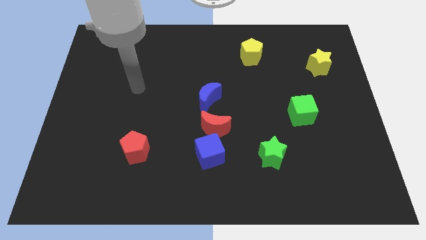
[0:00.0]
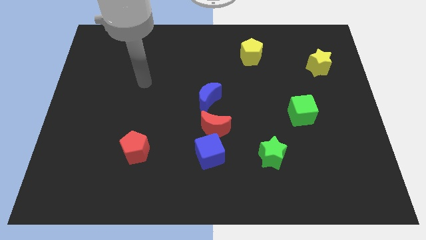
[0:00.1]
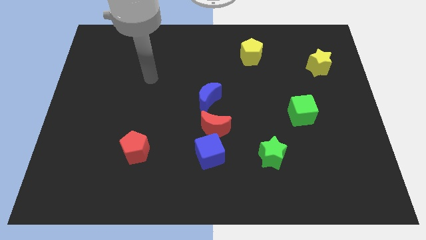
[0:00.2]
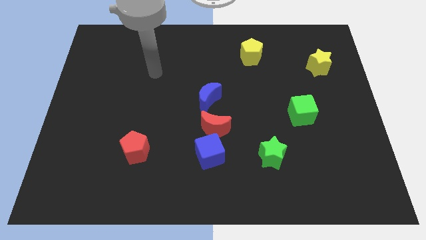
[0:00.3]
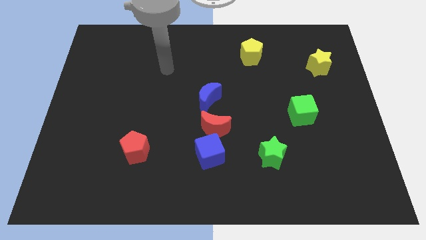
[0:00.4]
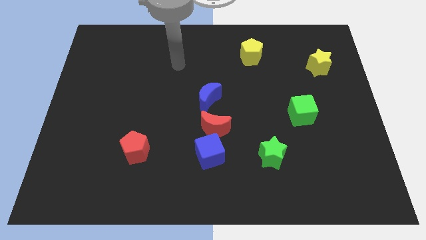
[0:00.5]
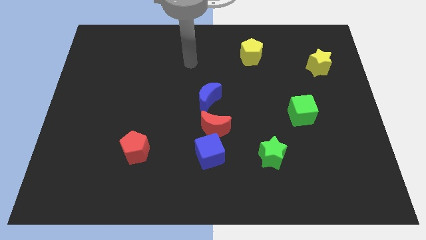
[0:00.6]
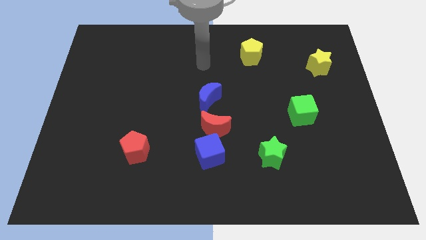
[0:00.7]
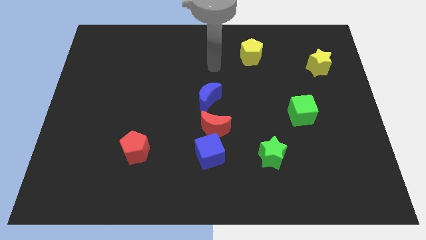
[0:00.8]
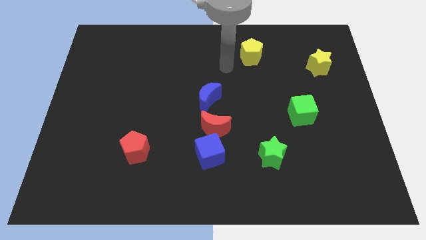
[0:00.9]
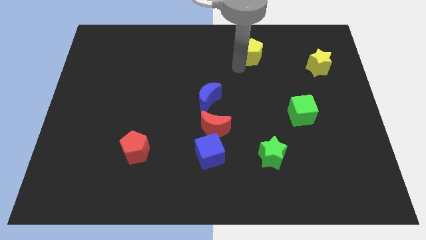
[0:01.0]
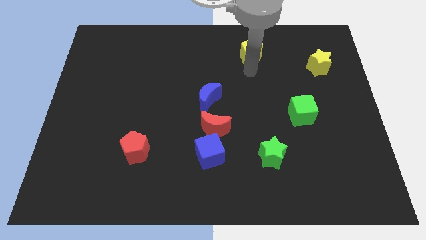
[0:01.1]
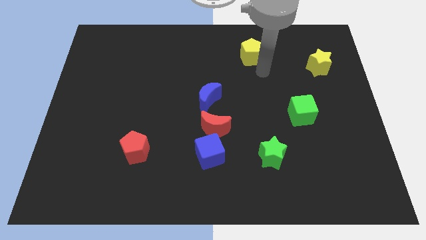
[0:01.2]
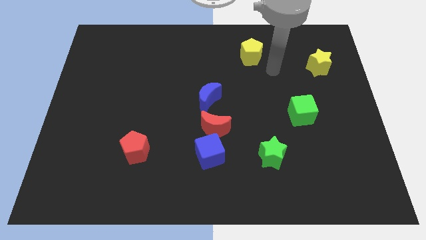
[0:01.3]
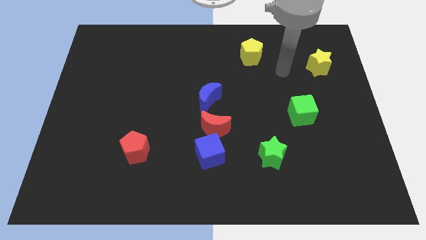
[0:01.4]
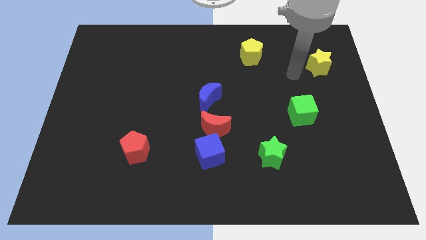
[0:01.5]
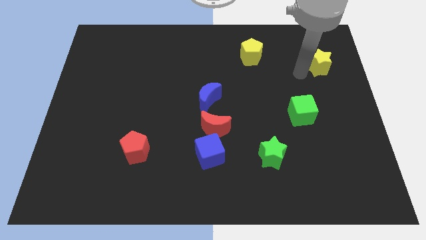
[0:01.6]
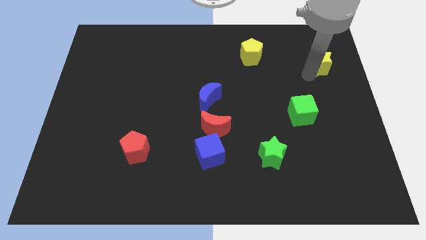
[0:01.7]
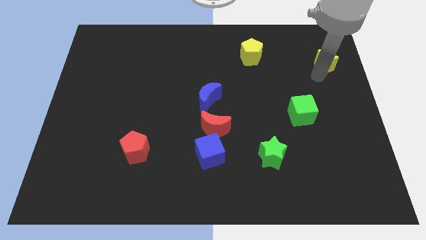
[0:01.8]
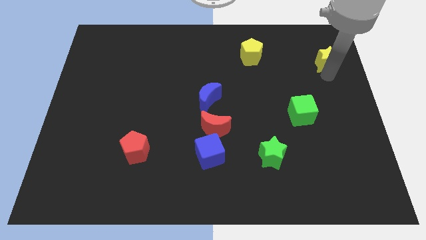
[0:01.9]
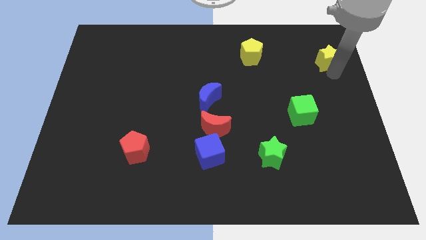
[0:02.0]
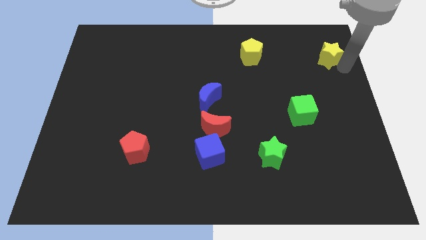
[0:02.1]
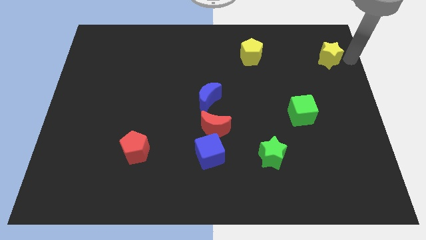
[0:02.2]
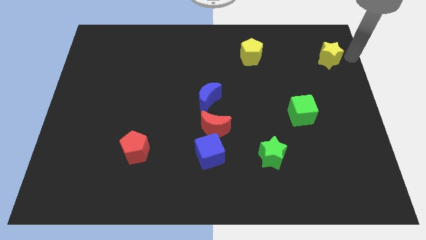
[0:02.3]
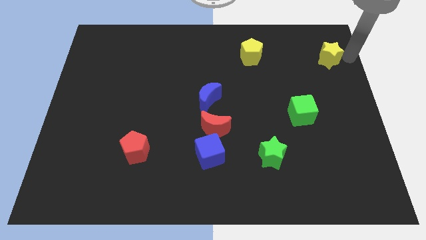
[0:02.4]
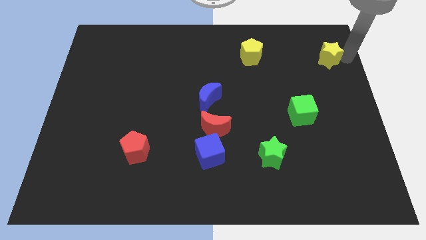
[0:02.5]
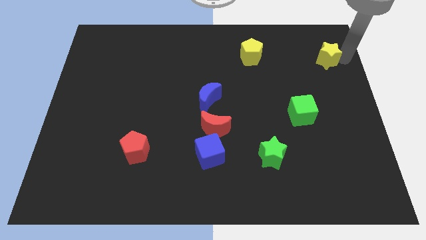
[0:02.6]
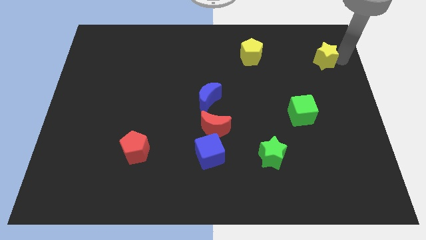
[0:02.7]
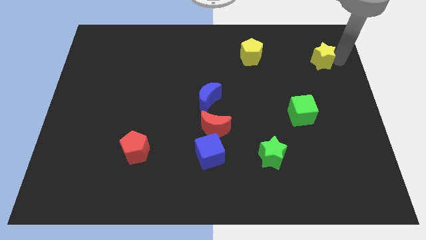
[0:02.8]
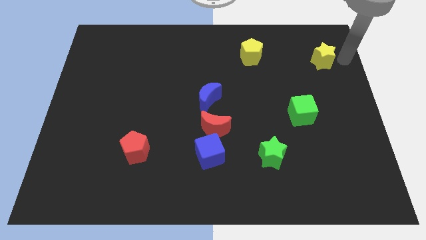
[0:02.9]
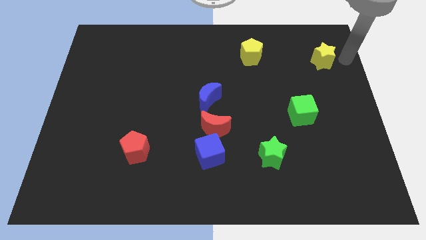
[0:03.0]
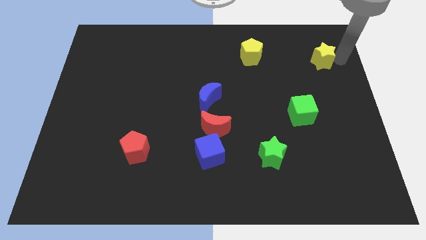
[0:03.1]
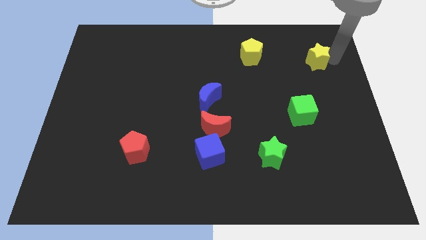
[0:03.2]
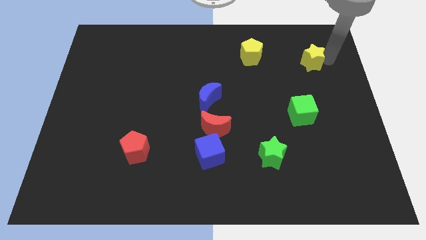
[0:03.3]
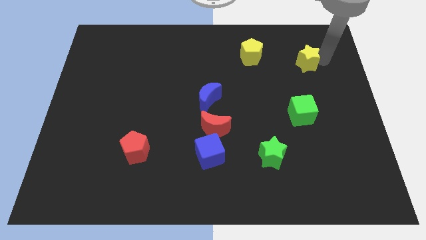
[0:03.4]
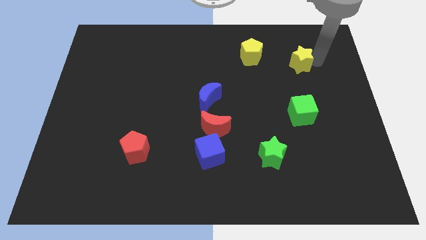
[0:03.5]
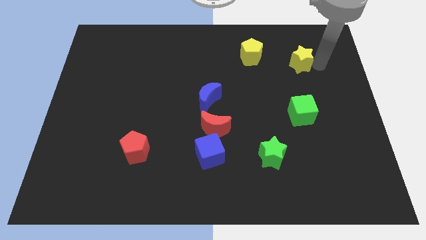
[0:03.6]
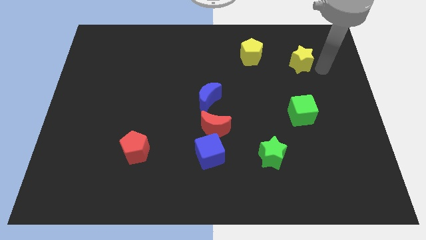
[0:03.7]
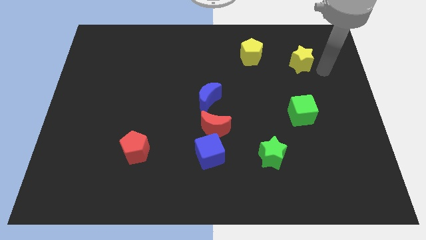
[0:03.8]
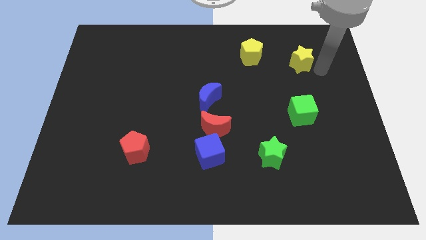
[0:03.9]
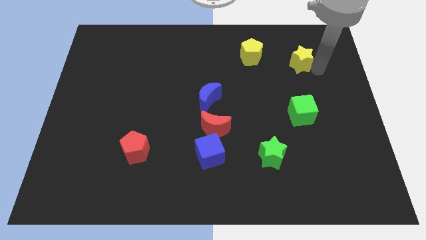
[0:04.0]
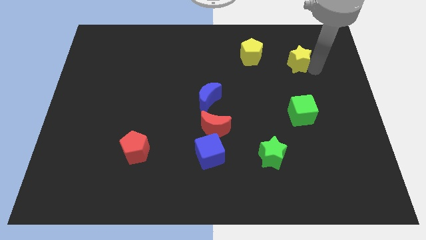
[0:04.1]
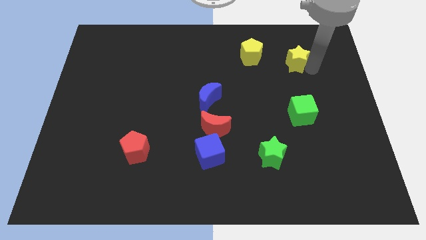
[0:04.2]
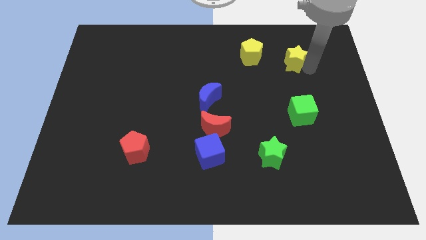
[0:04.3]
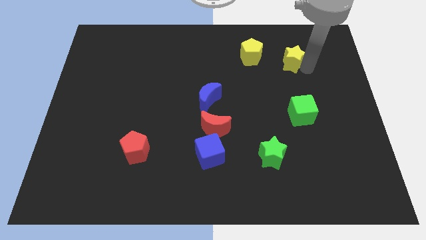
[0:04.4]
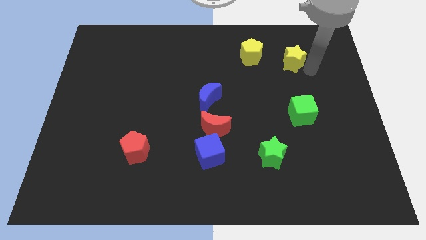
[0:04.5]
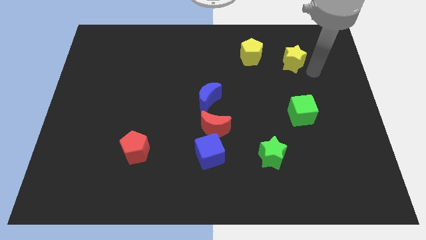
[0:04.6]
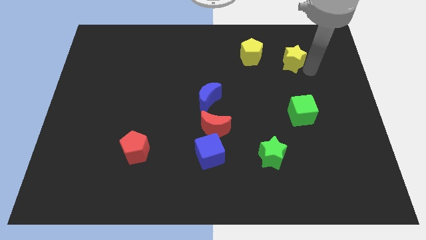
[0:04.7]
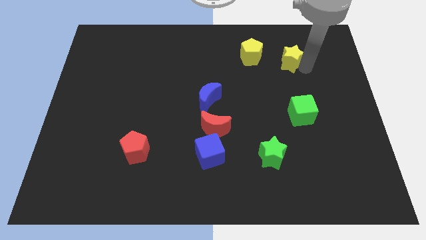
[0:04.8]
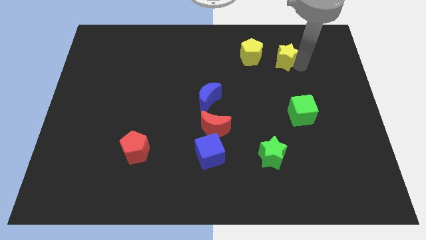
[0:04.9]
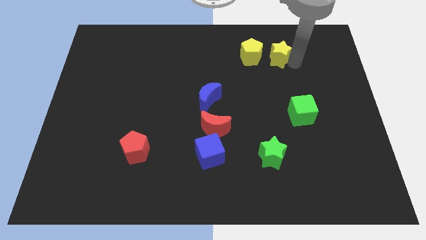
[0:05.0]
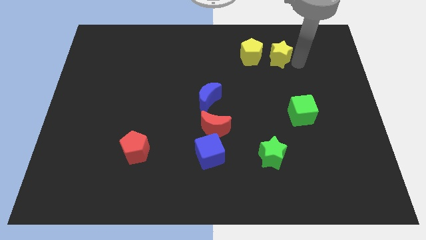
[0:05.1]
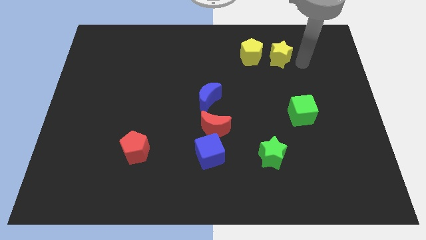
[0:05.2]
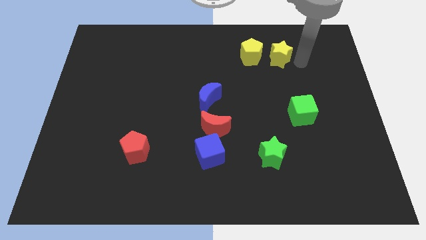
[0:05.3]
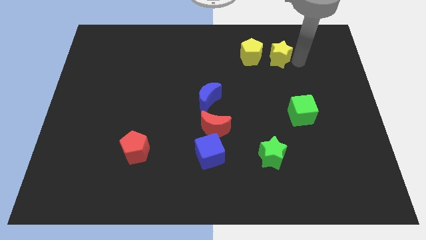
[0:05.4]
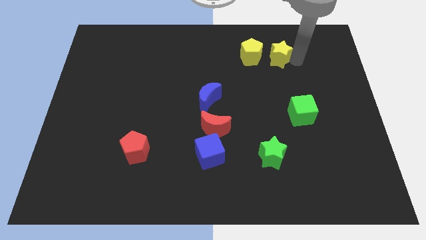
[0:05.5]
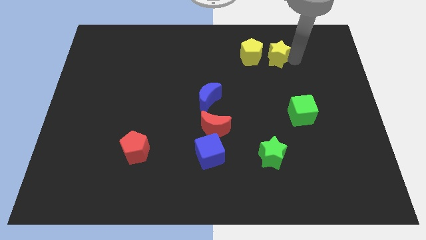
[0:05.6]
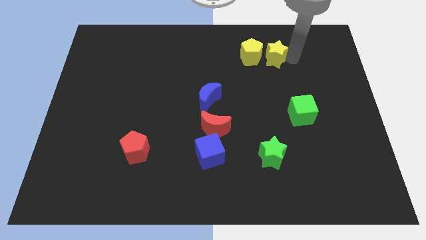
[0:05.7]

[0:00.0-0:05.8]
put the yellow star next to the yellow pentagon

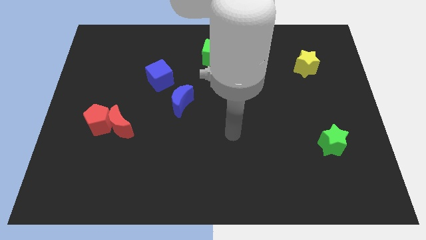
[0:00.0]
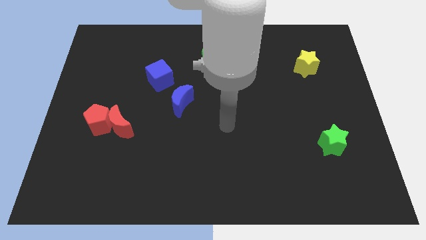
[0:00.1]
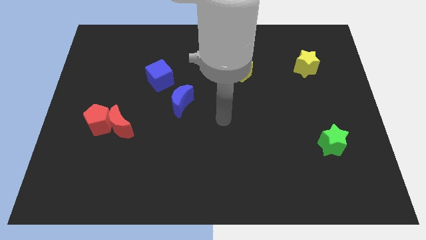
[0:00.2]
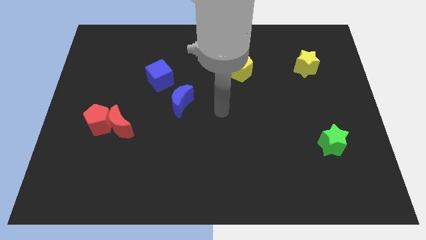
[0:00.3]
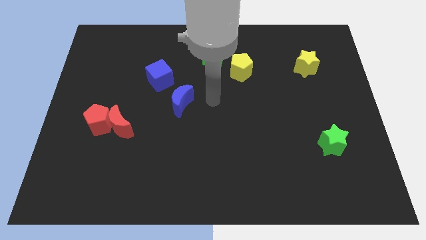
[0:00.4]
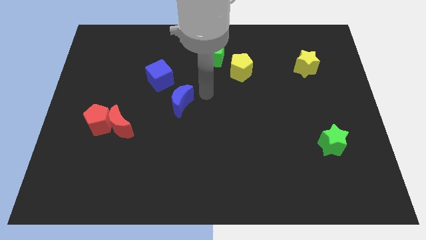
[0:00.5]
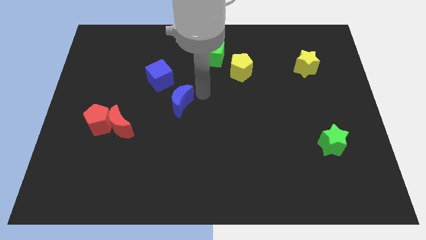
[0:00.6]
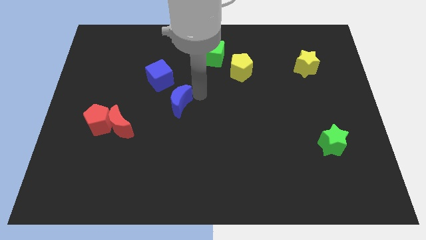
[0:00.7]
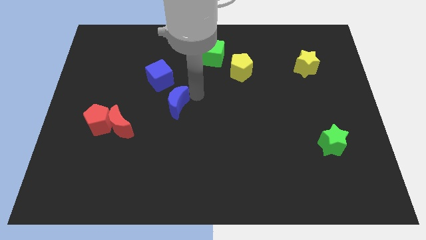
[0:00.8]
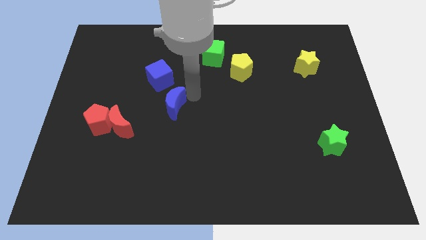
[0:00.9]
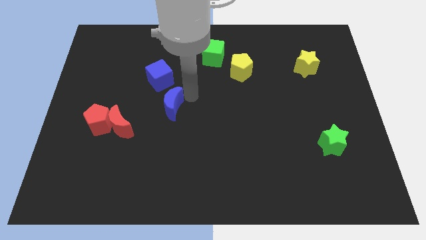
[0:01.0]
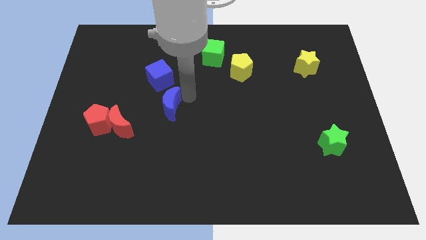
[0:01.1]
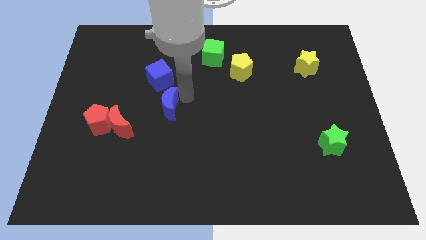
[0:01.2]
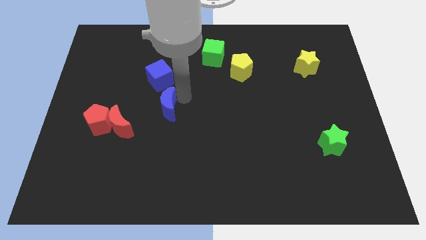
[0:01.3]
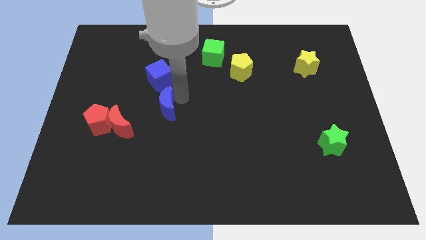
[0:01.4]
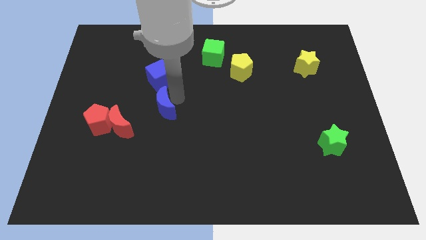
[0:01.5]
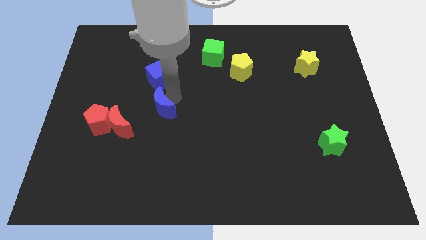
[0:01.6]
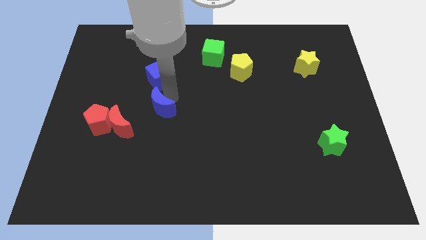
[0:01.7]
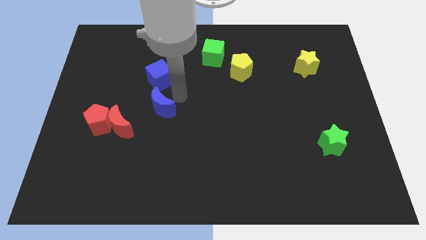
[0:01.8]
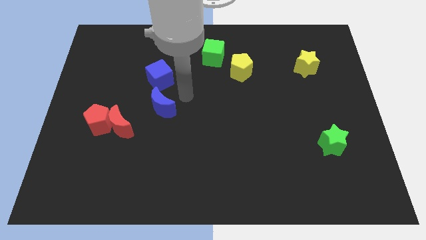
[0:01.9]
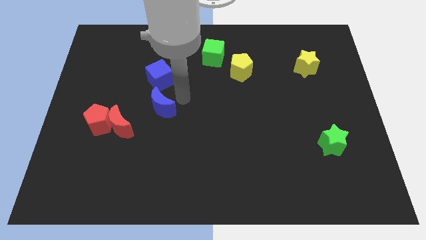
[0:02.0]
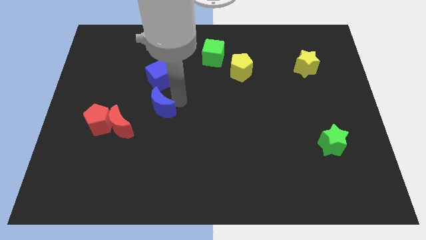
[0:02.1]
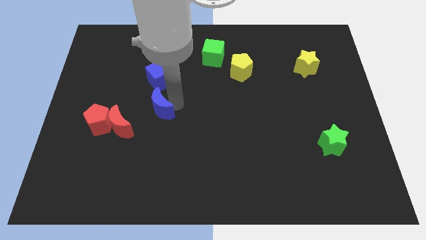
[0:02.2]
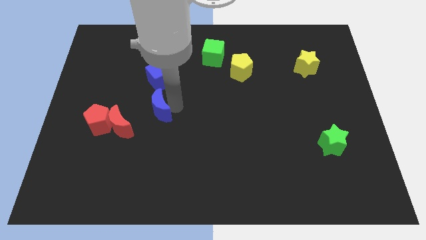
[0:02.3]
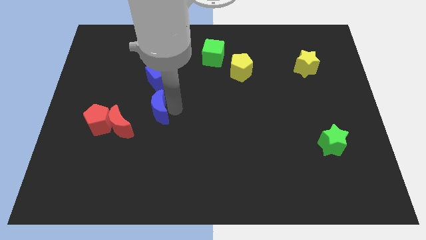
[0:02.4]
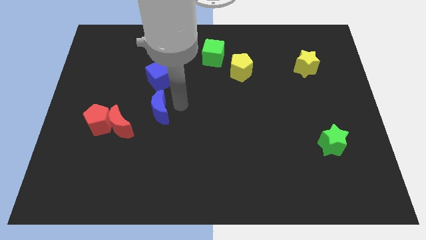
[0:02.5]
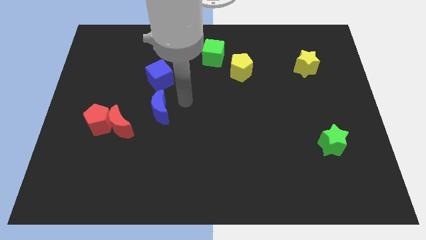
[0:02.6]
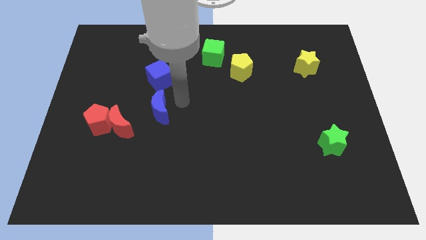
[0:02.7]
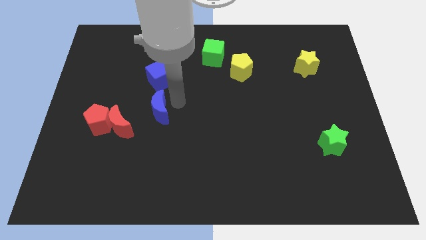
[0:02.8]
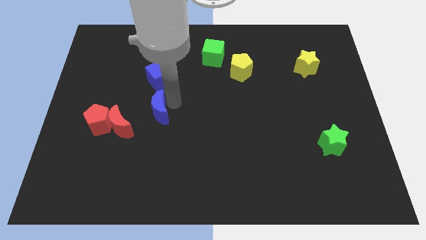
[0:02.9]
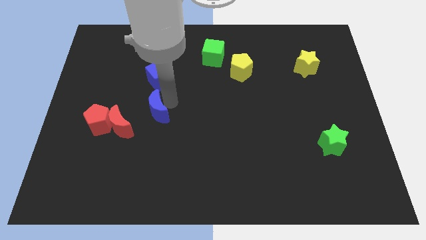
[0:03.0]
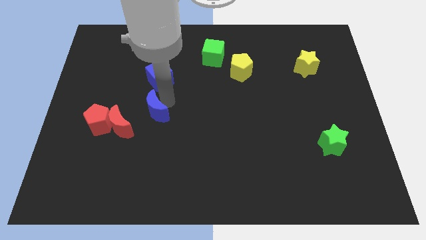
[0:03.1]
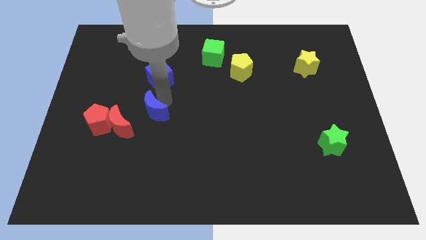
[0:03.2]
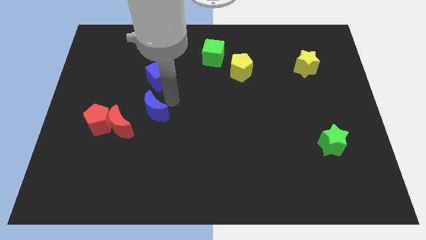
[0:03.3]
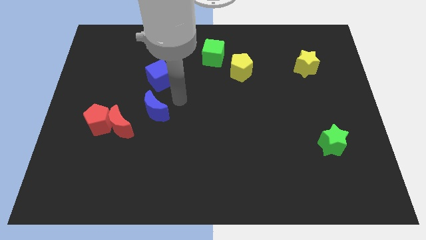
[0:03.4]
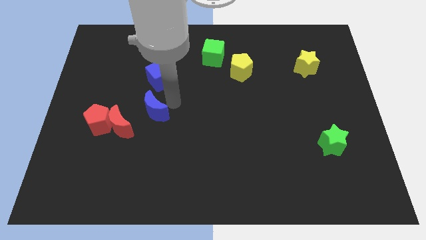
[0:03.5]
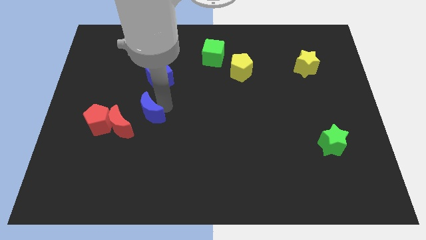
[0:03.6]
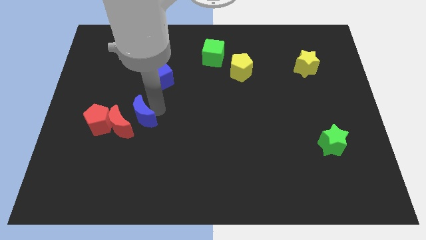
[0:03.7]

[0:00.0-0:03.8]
push the blue moon close to the red moon
